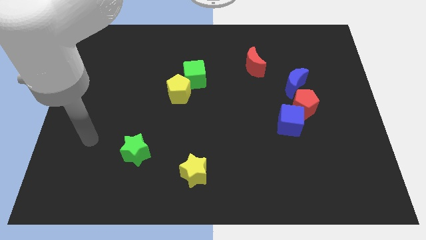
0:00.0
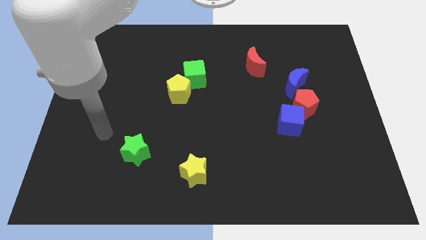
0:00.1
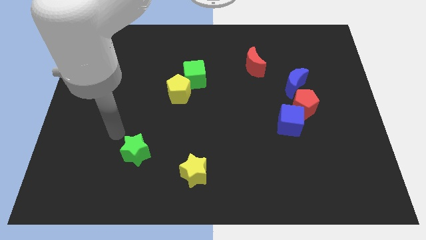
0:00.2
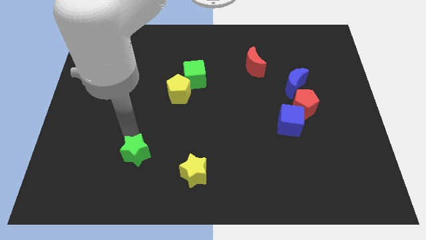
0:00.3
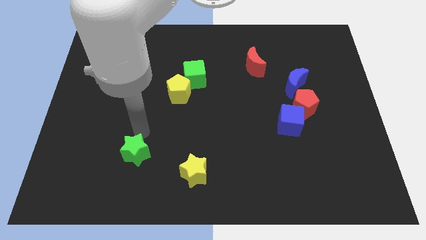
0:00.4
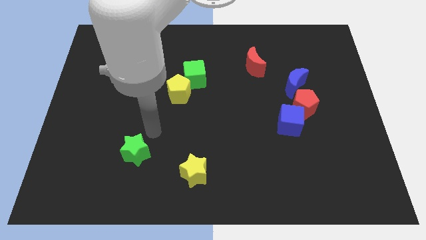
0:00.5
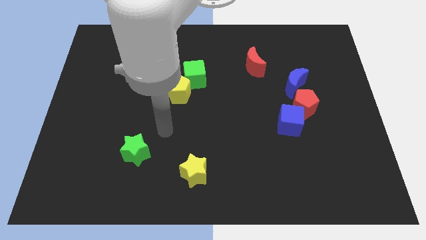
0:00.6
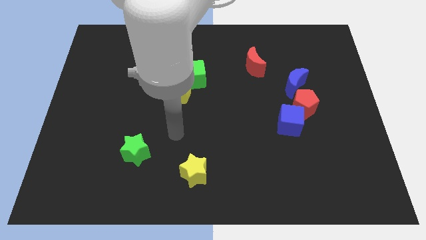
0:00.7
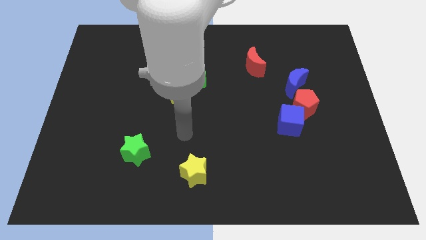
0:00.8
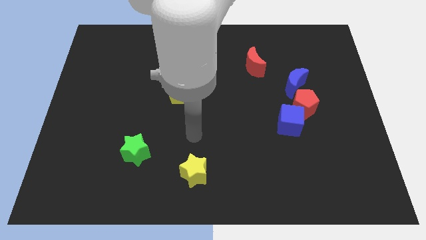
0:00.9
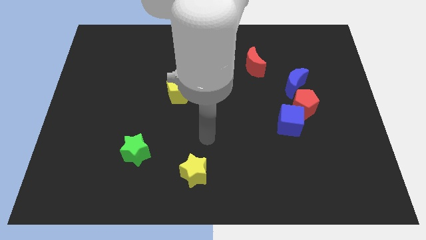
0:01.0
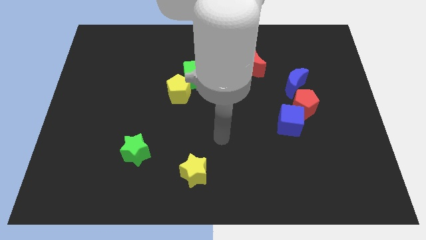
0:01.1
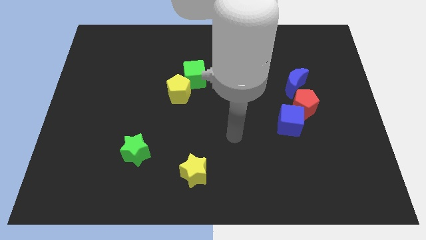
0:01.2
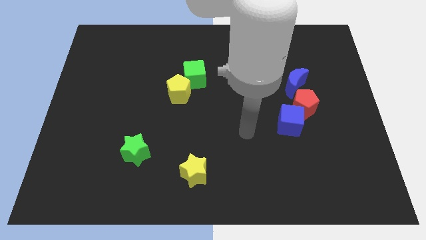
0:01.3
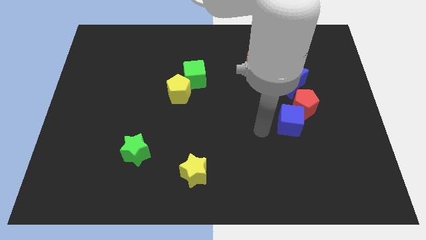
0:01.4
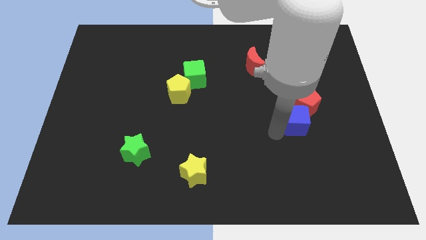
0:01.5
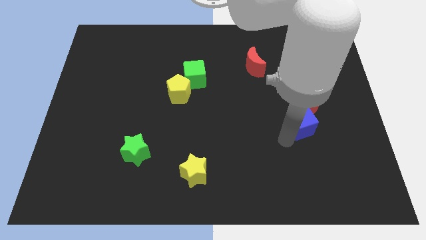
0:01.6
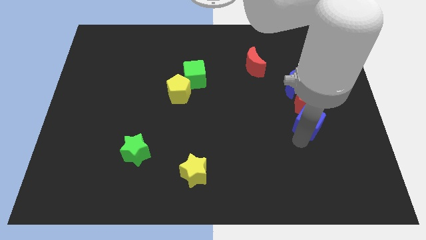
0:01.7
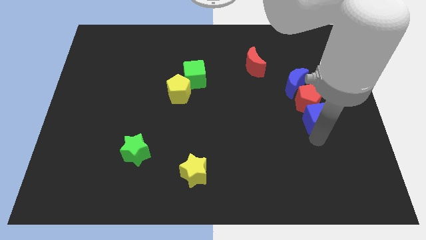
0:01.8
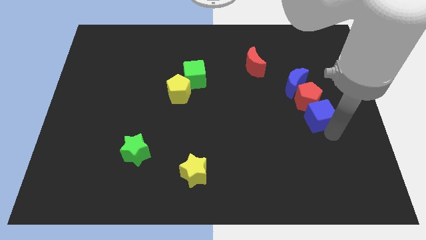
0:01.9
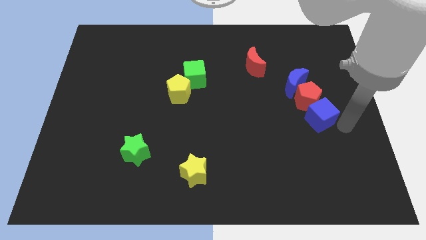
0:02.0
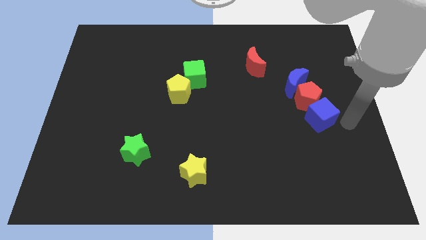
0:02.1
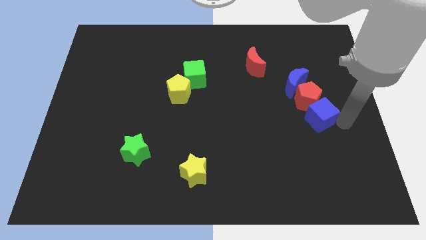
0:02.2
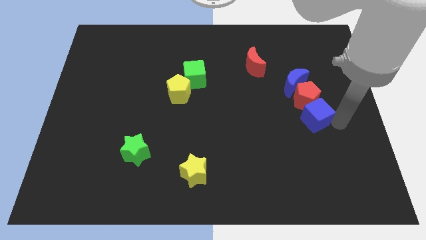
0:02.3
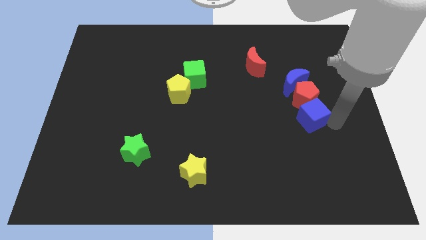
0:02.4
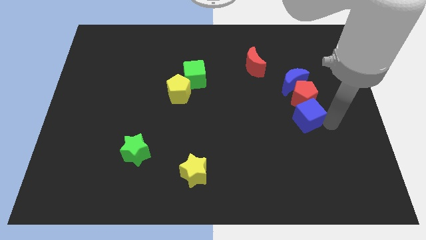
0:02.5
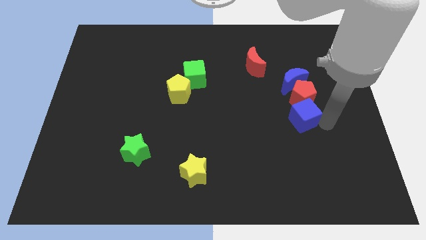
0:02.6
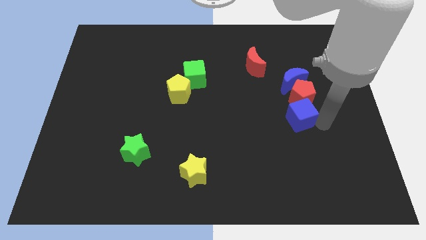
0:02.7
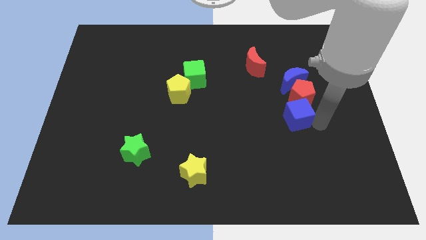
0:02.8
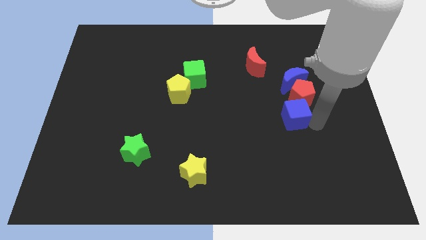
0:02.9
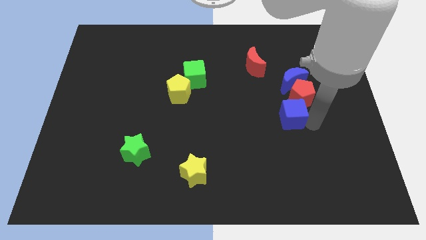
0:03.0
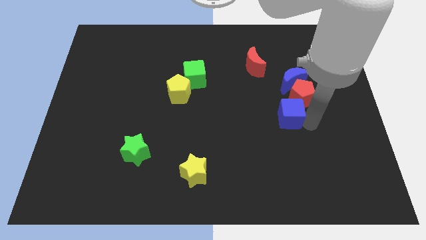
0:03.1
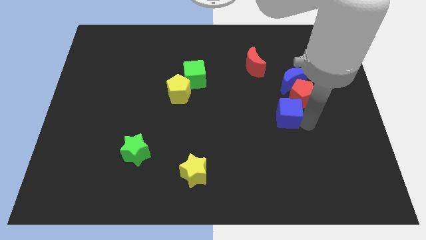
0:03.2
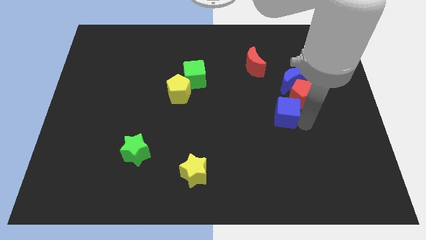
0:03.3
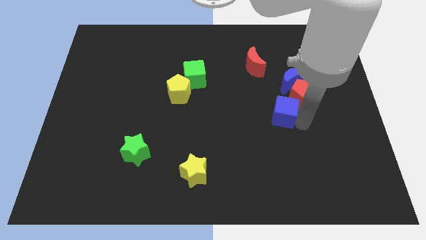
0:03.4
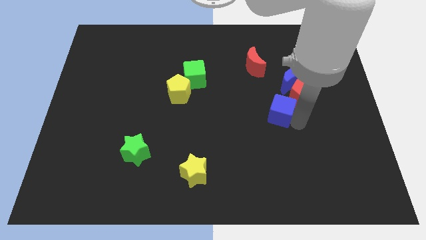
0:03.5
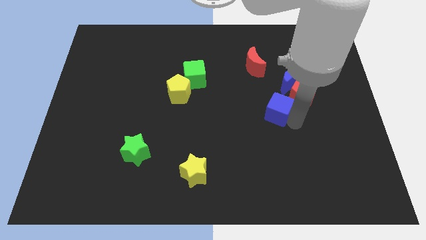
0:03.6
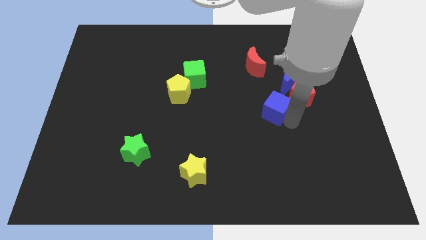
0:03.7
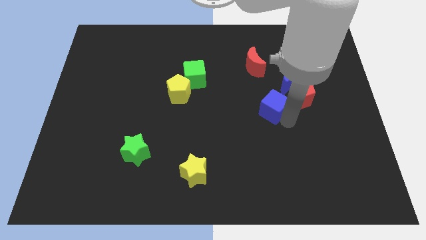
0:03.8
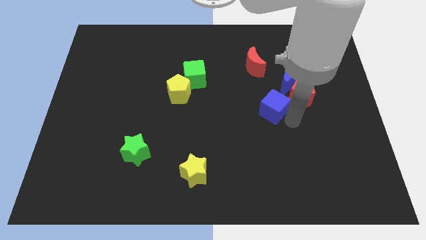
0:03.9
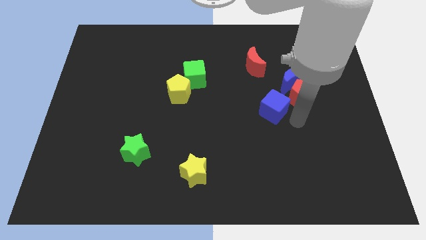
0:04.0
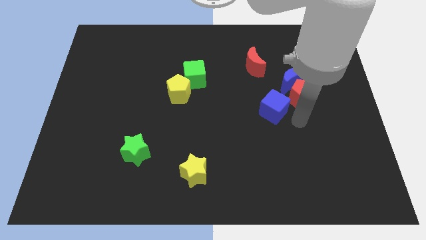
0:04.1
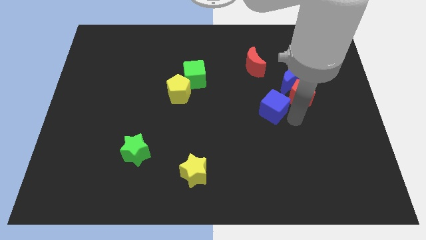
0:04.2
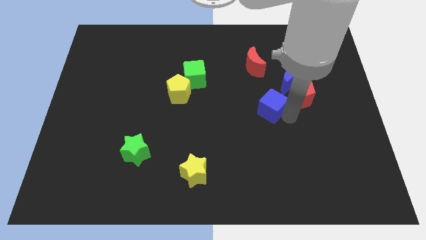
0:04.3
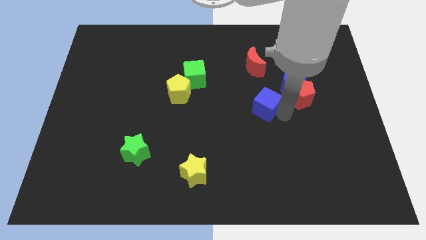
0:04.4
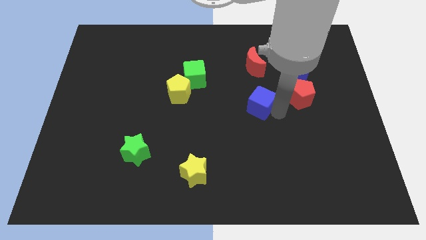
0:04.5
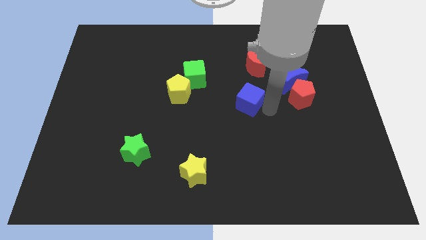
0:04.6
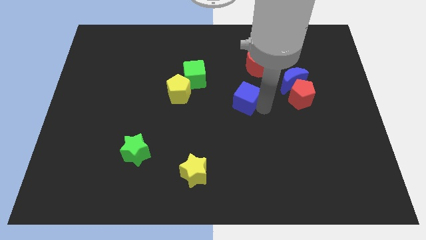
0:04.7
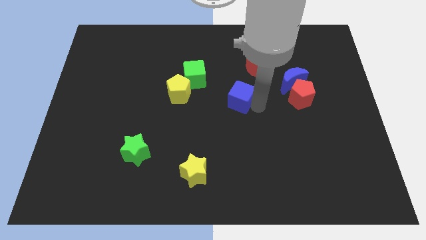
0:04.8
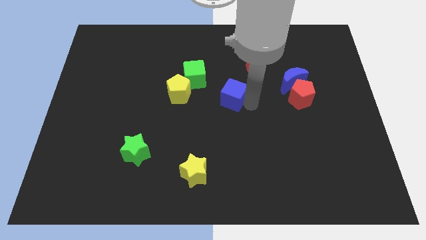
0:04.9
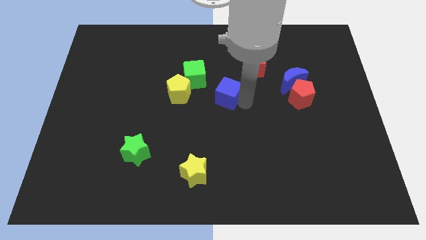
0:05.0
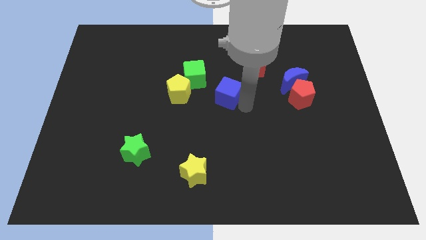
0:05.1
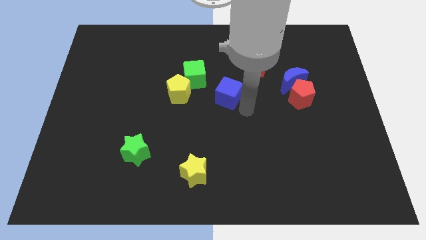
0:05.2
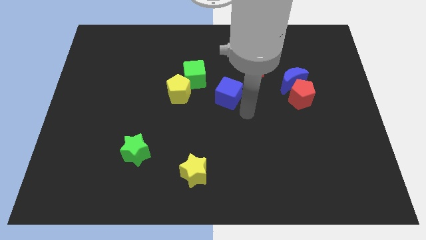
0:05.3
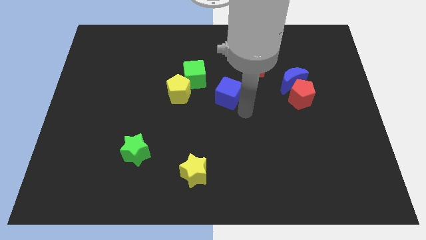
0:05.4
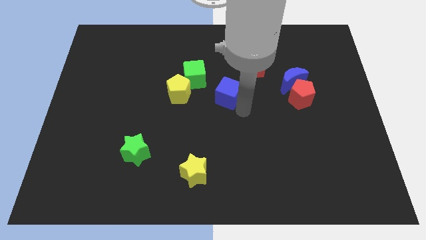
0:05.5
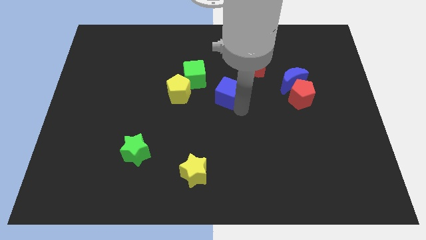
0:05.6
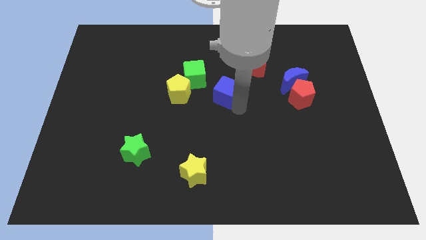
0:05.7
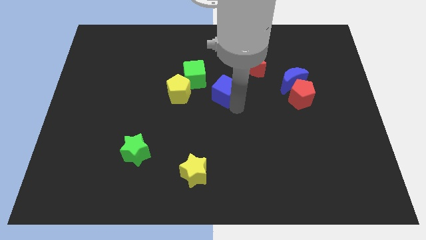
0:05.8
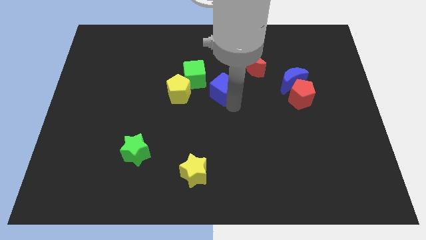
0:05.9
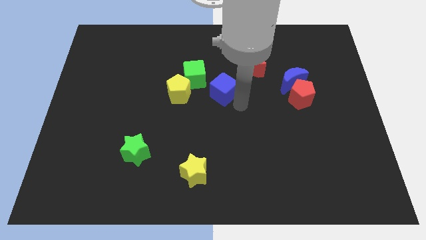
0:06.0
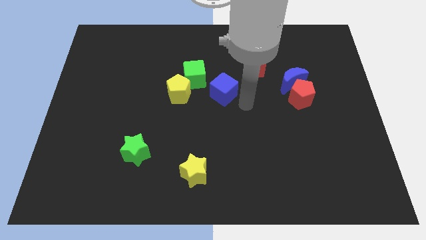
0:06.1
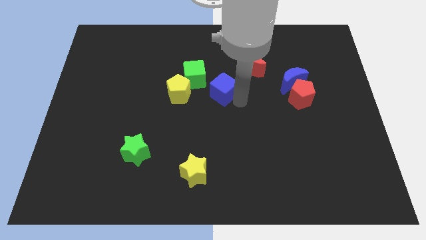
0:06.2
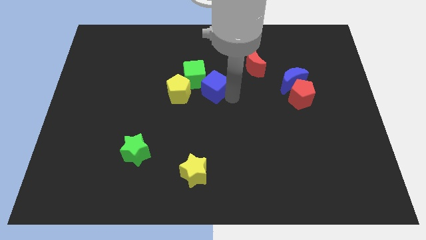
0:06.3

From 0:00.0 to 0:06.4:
push the blue cube towards the green cube

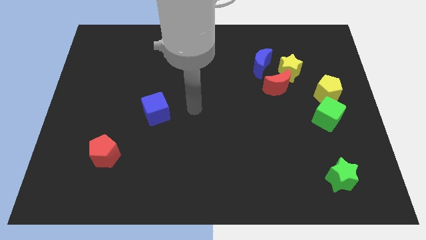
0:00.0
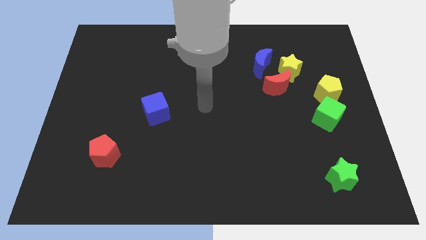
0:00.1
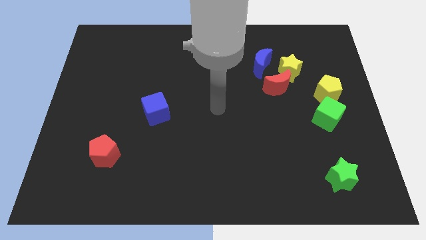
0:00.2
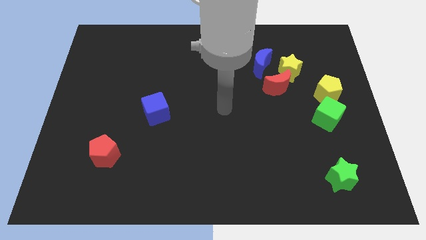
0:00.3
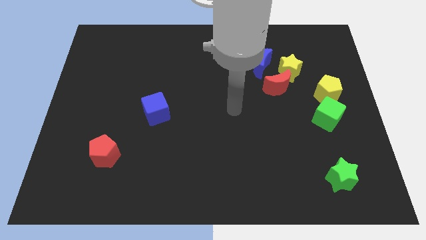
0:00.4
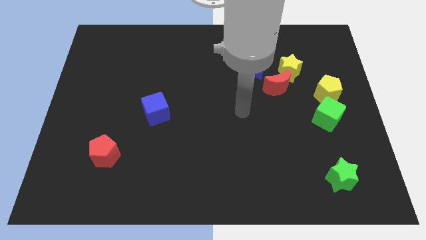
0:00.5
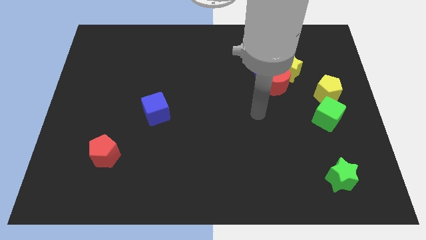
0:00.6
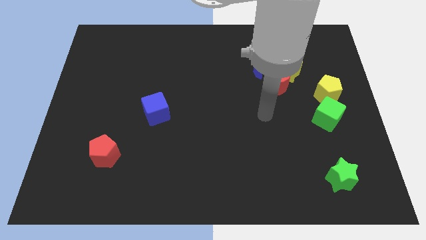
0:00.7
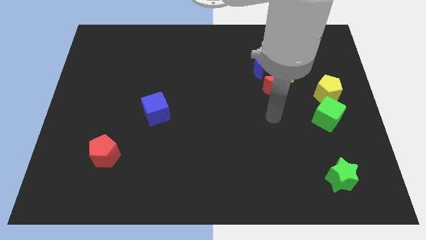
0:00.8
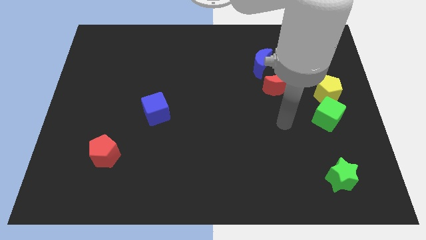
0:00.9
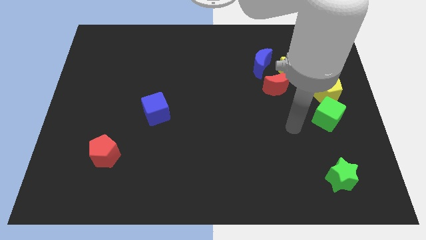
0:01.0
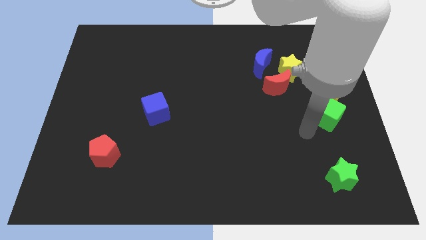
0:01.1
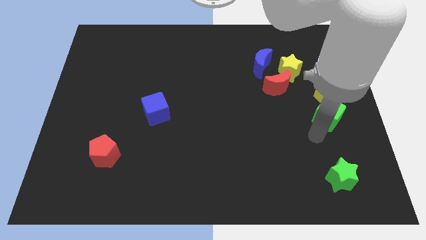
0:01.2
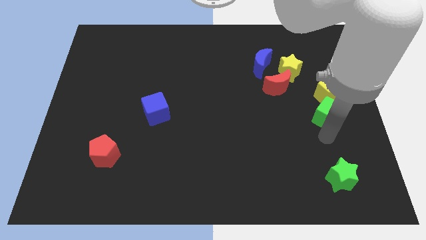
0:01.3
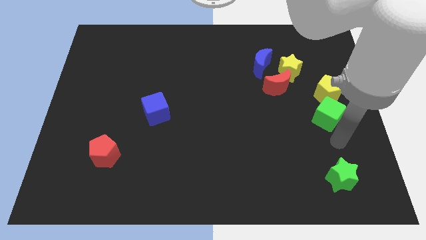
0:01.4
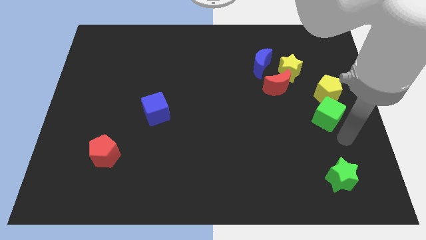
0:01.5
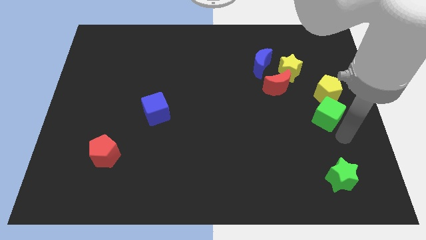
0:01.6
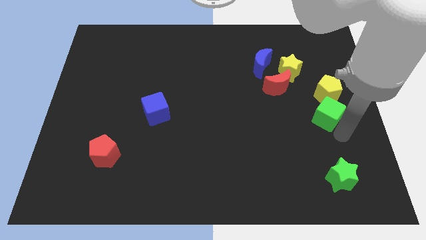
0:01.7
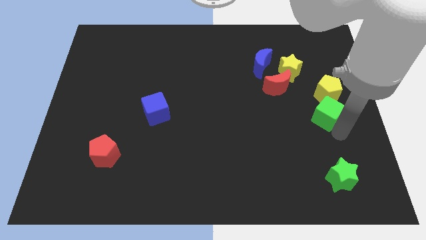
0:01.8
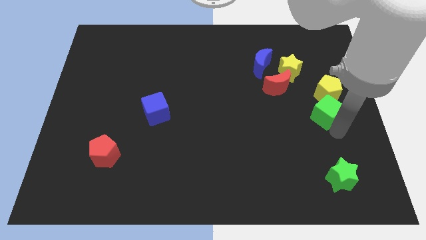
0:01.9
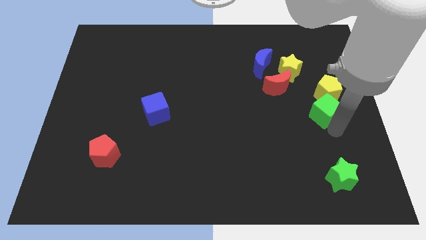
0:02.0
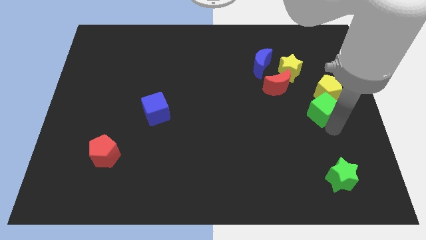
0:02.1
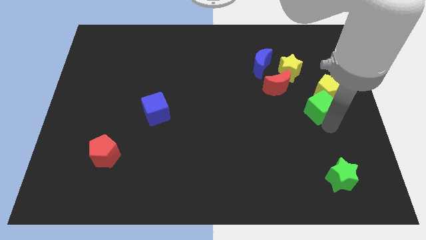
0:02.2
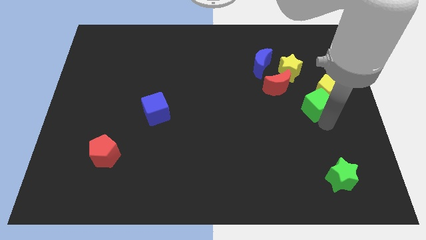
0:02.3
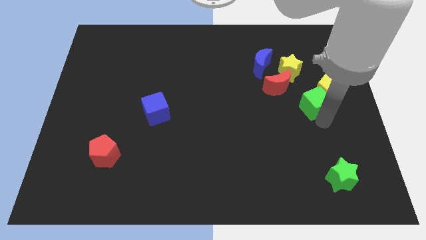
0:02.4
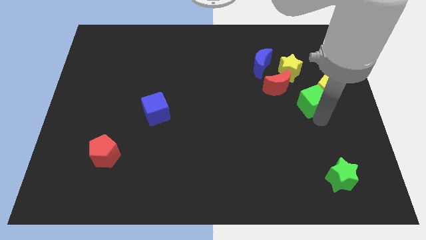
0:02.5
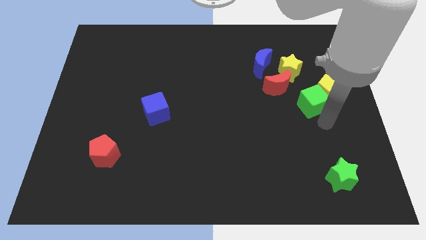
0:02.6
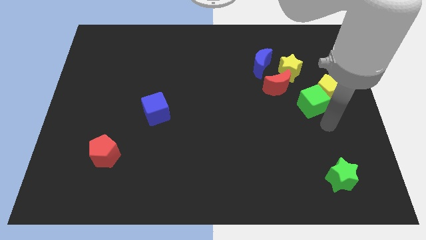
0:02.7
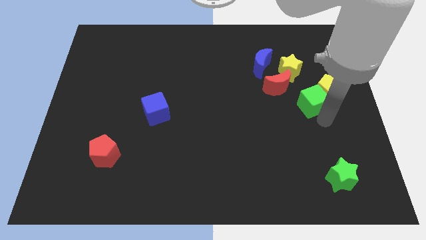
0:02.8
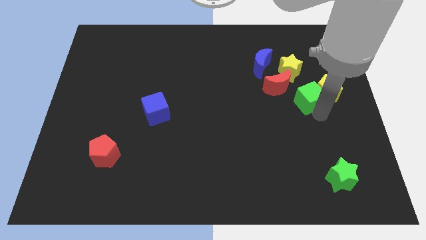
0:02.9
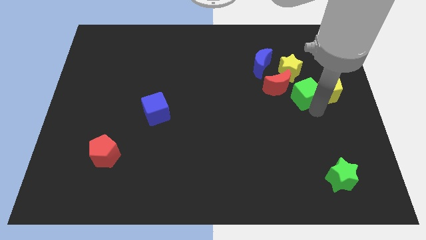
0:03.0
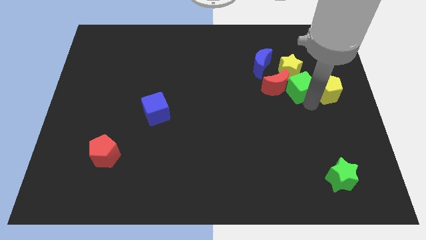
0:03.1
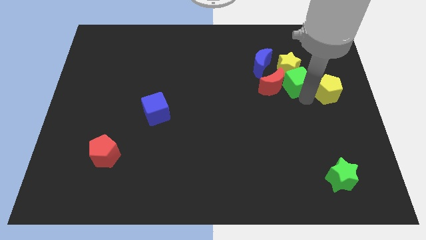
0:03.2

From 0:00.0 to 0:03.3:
put the green cube towards the yellow star
